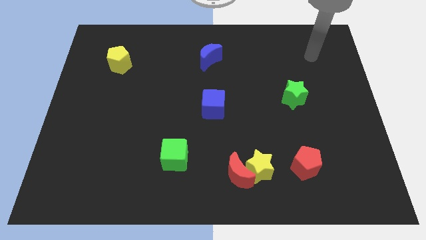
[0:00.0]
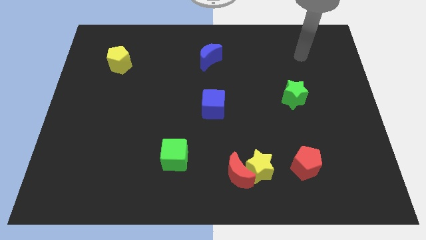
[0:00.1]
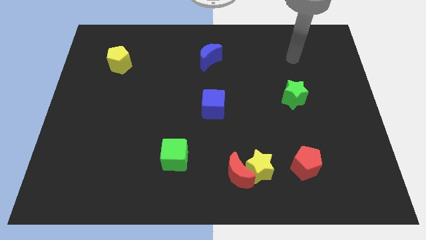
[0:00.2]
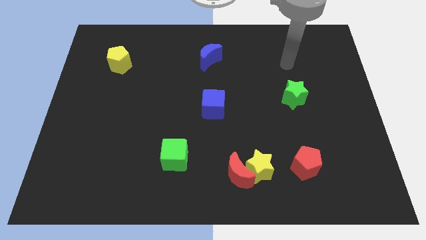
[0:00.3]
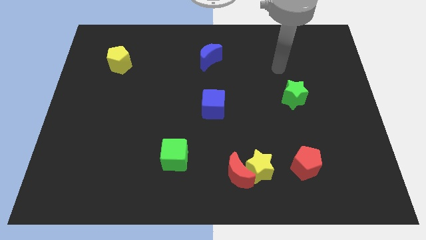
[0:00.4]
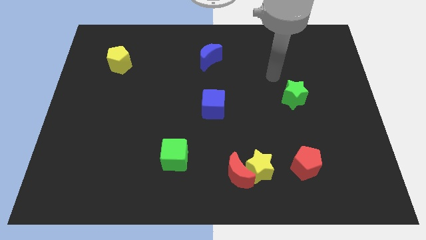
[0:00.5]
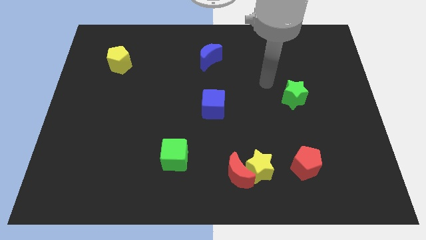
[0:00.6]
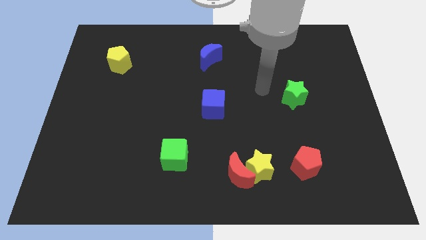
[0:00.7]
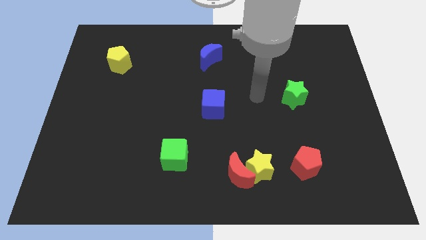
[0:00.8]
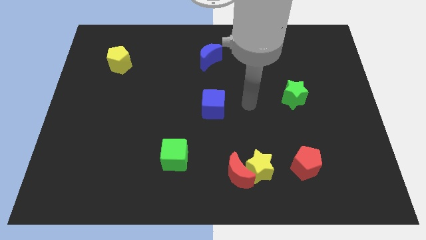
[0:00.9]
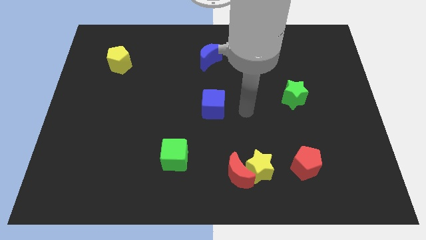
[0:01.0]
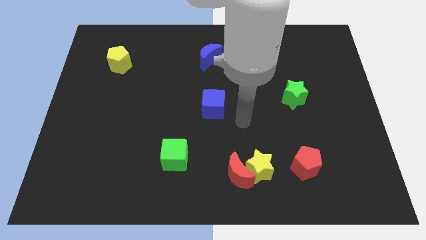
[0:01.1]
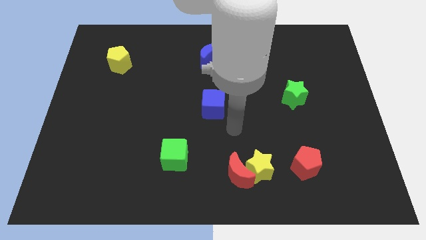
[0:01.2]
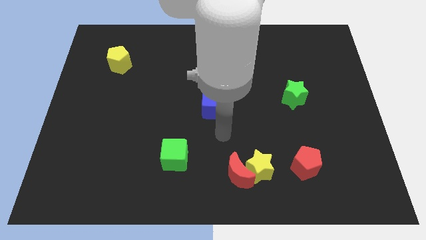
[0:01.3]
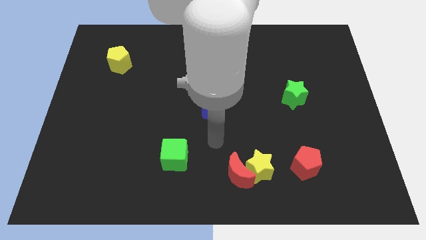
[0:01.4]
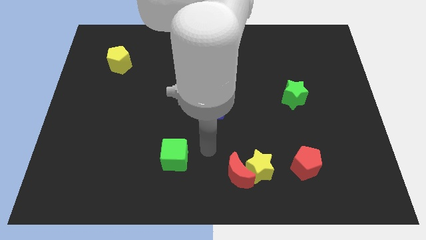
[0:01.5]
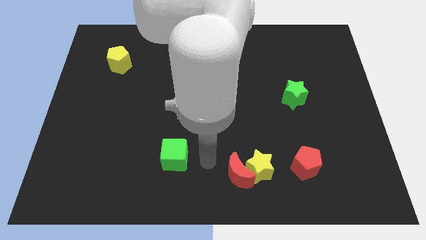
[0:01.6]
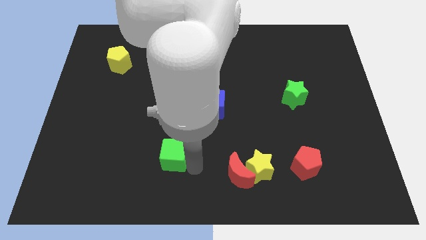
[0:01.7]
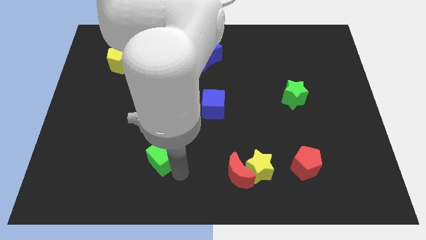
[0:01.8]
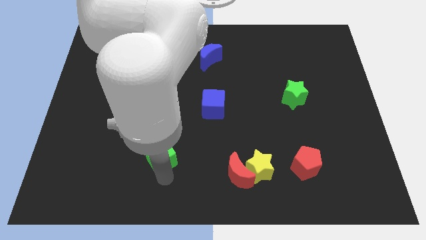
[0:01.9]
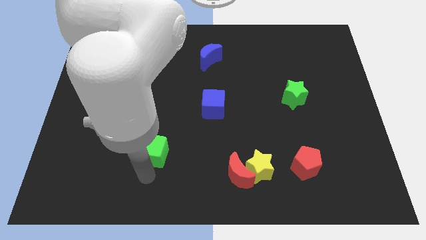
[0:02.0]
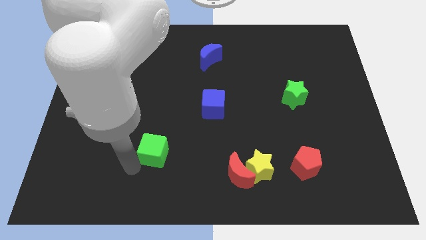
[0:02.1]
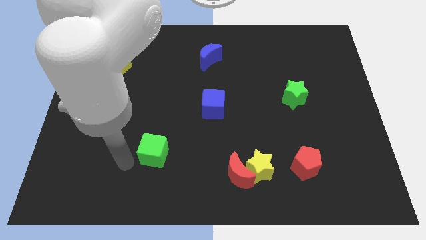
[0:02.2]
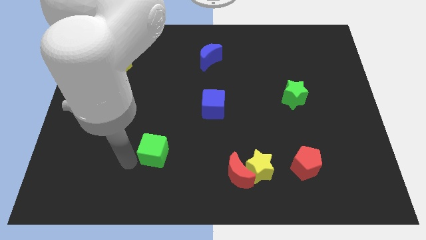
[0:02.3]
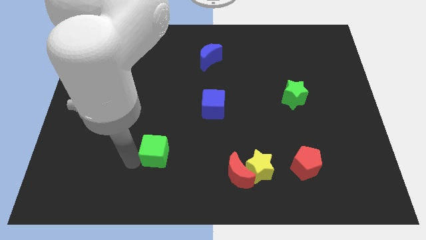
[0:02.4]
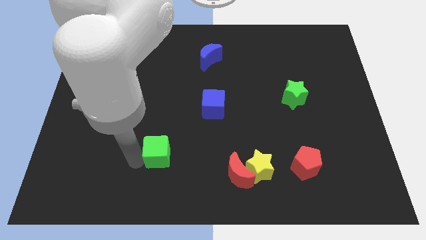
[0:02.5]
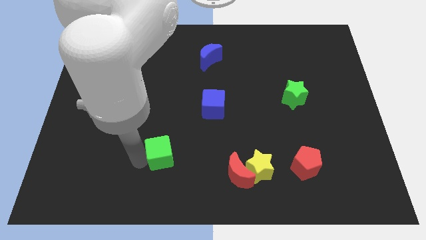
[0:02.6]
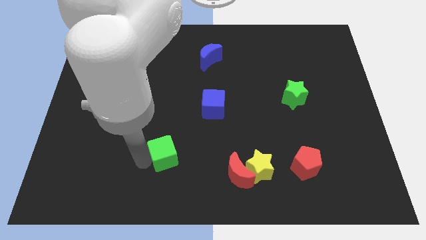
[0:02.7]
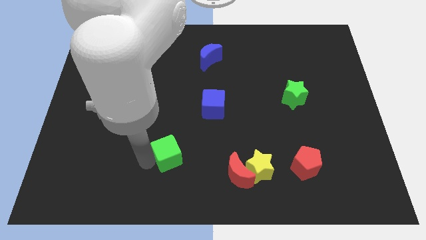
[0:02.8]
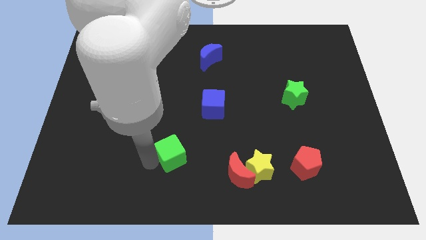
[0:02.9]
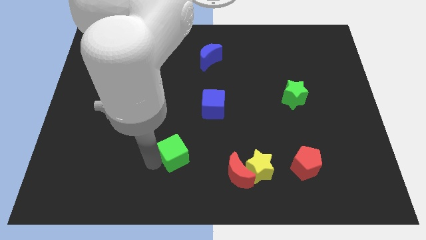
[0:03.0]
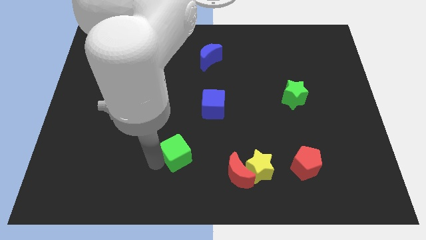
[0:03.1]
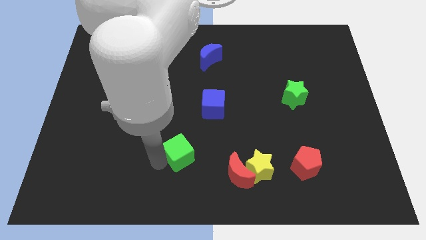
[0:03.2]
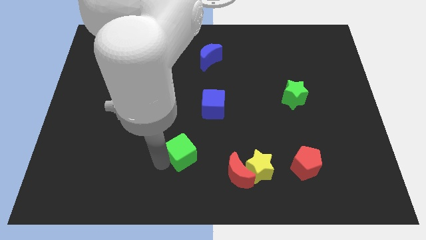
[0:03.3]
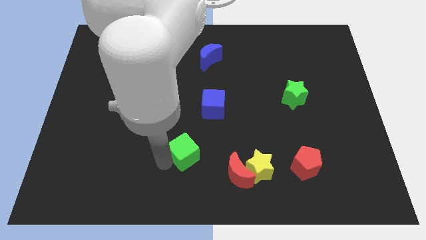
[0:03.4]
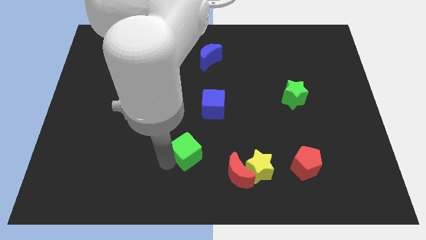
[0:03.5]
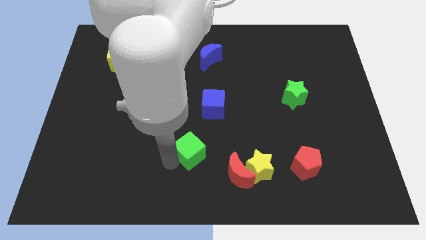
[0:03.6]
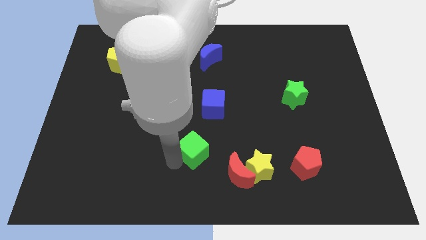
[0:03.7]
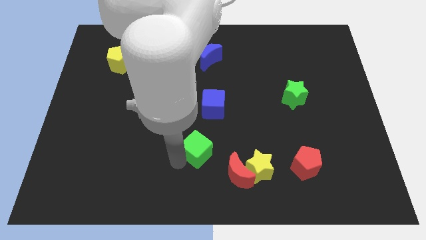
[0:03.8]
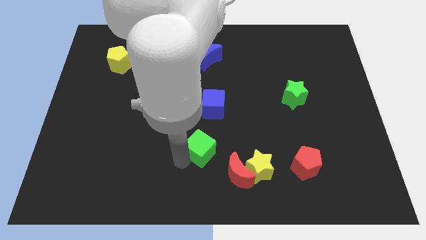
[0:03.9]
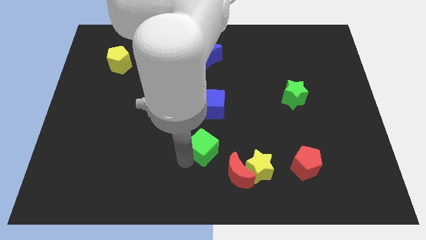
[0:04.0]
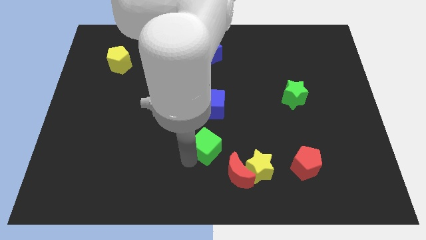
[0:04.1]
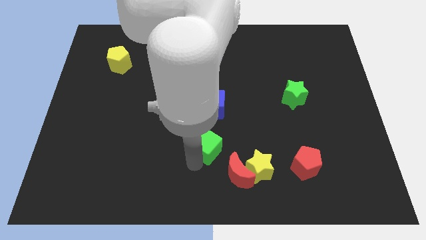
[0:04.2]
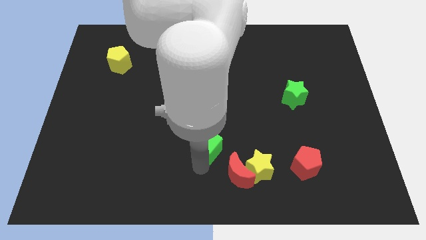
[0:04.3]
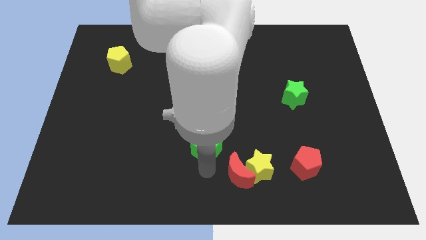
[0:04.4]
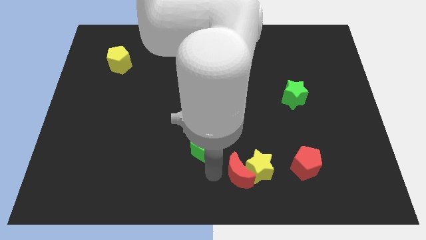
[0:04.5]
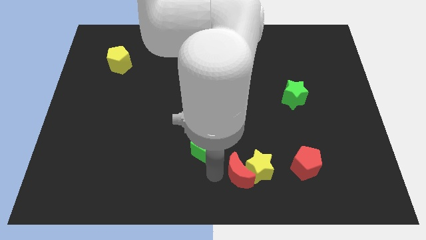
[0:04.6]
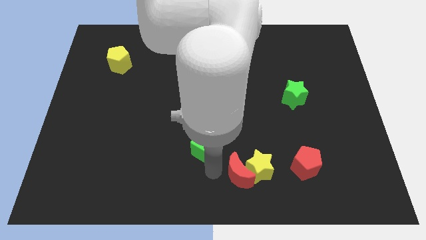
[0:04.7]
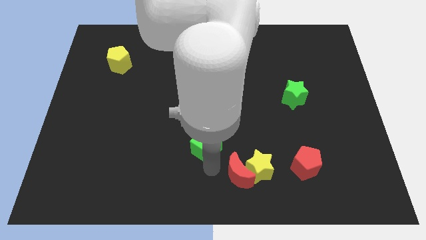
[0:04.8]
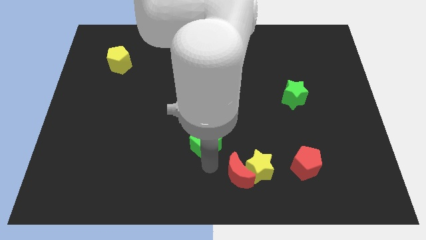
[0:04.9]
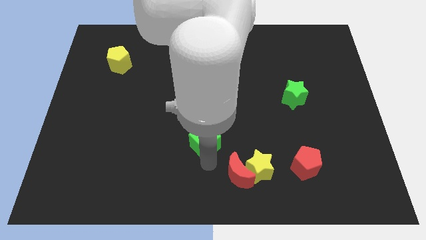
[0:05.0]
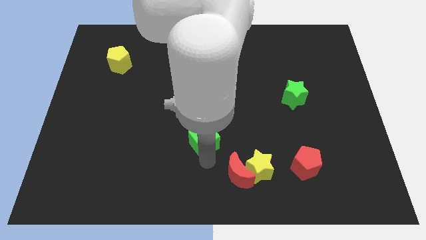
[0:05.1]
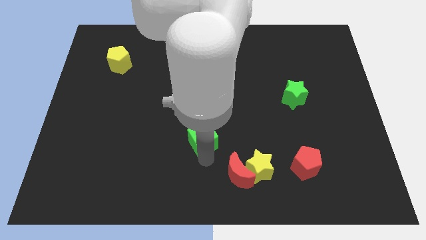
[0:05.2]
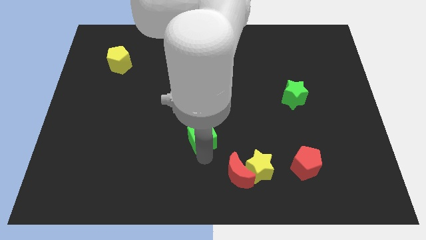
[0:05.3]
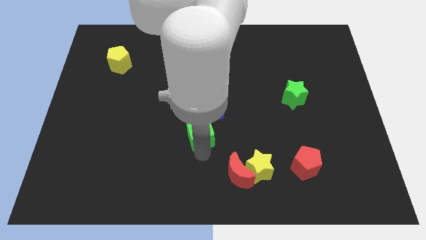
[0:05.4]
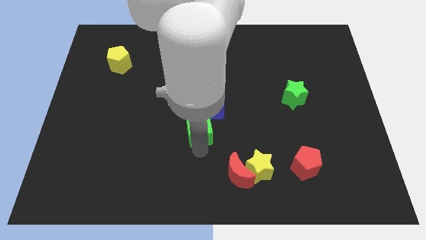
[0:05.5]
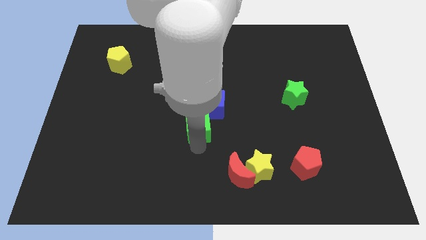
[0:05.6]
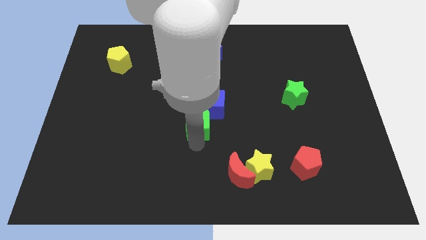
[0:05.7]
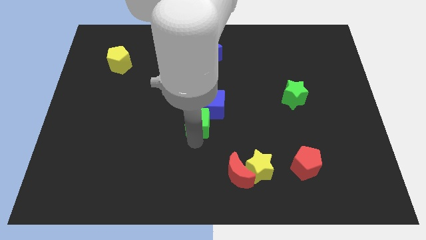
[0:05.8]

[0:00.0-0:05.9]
slide the green cube next to the blue cube

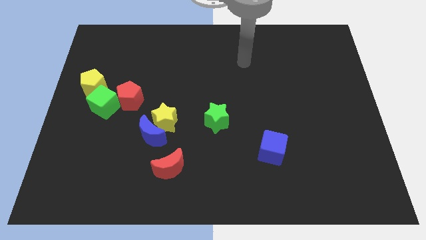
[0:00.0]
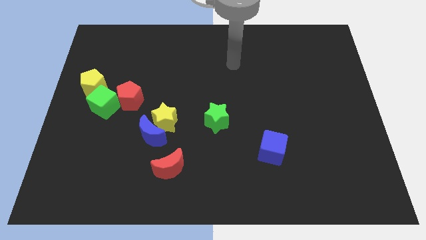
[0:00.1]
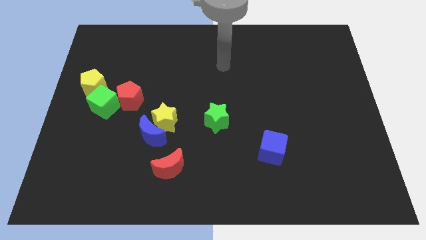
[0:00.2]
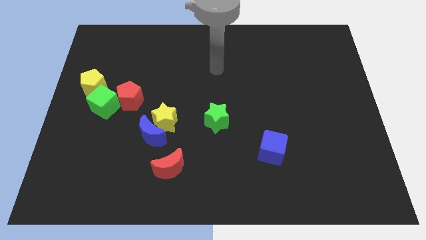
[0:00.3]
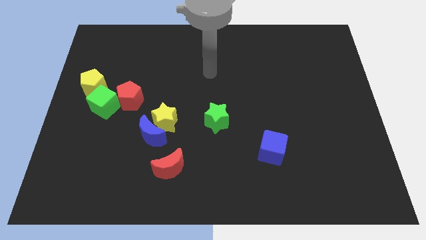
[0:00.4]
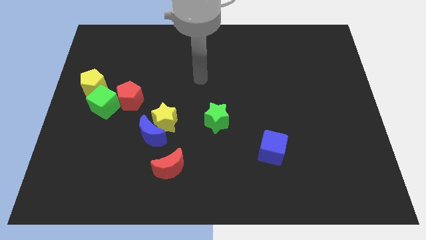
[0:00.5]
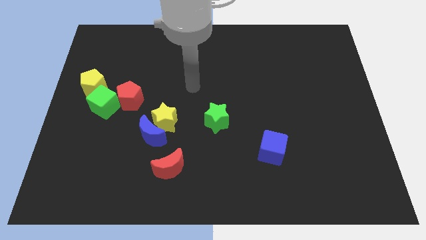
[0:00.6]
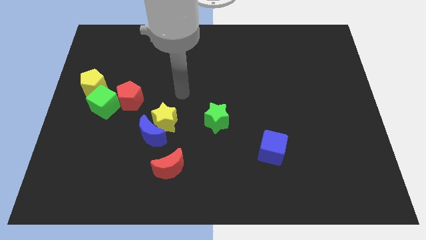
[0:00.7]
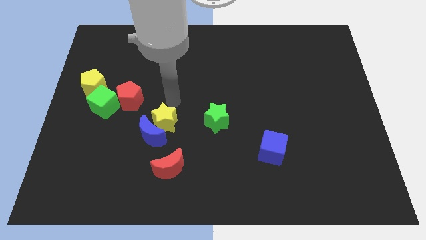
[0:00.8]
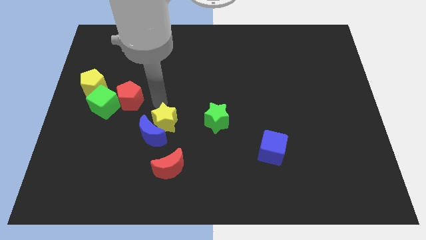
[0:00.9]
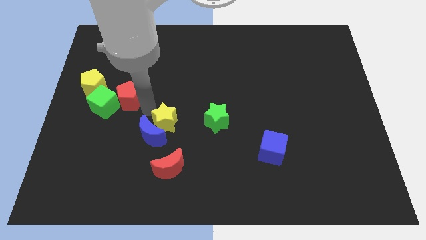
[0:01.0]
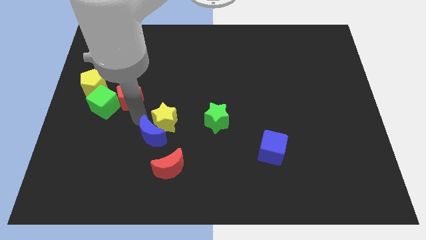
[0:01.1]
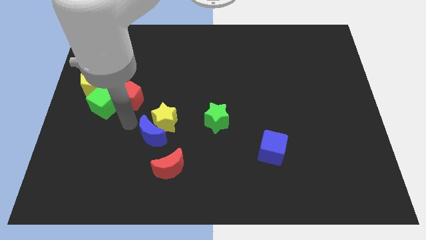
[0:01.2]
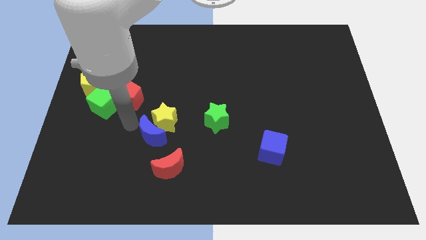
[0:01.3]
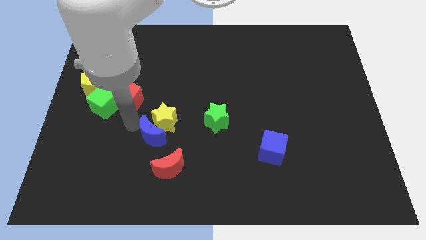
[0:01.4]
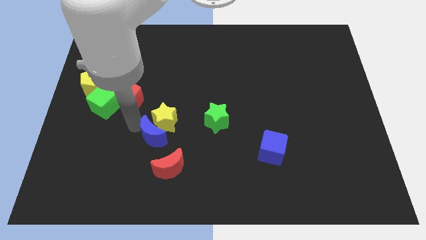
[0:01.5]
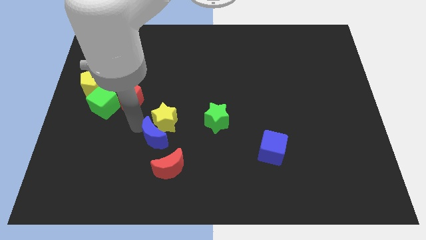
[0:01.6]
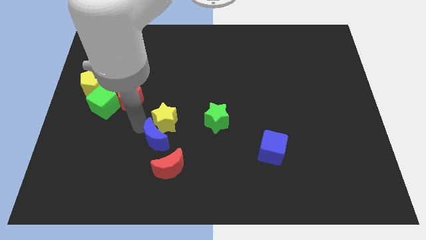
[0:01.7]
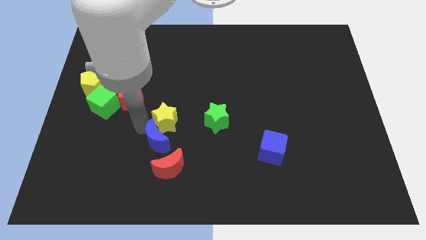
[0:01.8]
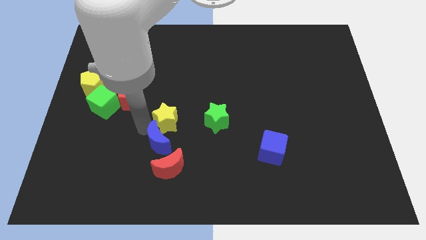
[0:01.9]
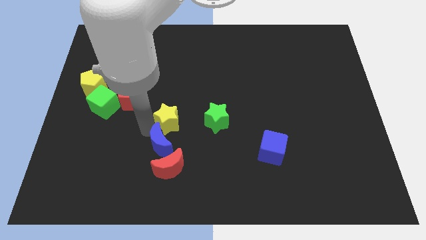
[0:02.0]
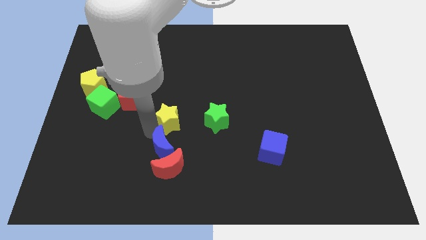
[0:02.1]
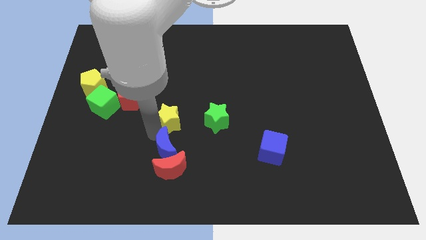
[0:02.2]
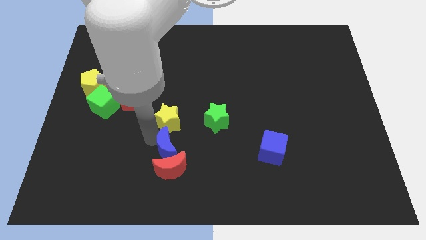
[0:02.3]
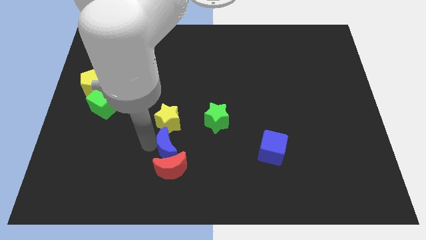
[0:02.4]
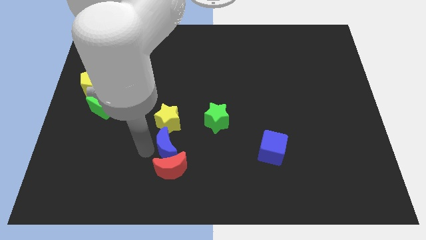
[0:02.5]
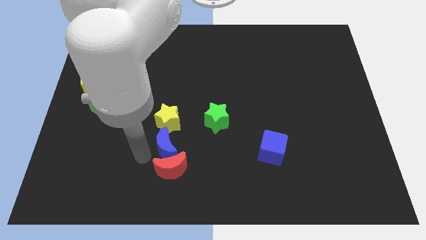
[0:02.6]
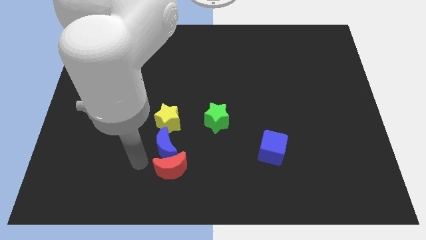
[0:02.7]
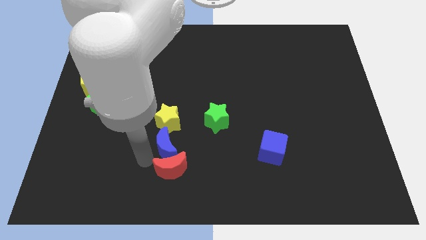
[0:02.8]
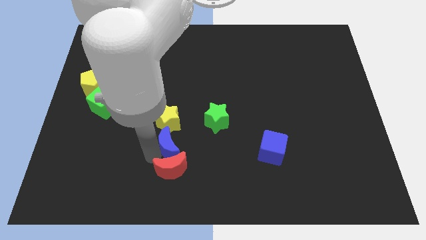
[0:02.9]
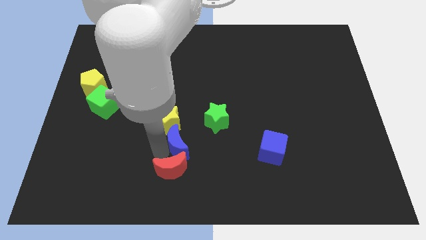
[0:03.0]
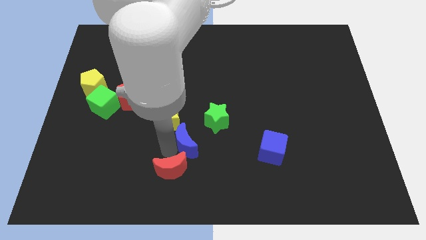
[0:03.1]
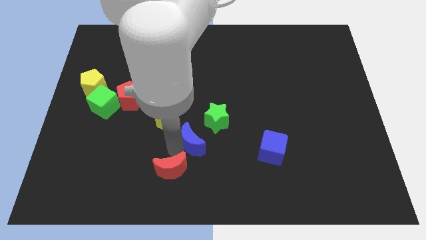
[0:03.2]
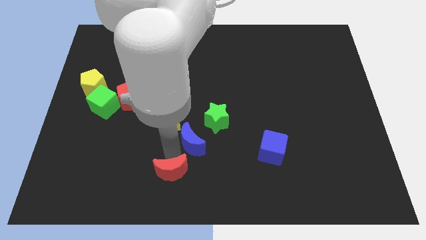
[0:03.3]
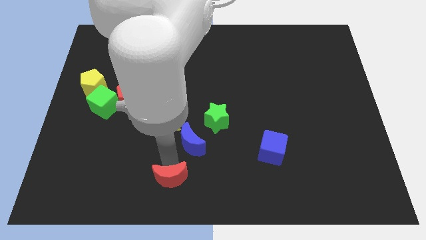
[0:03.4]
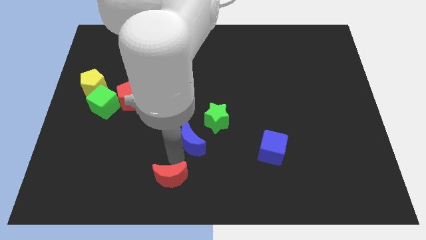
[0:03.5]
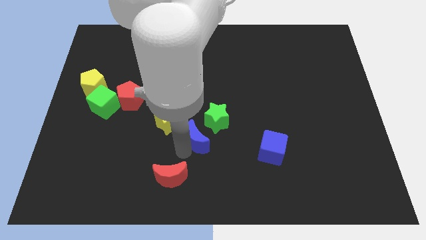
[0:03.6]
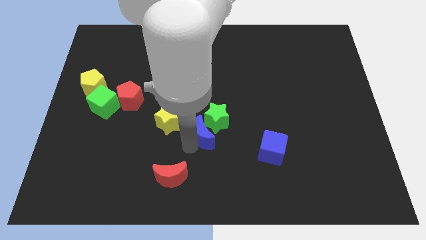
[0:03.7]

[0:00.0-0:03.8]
slide the blue moon next to the green star
